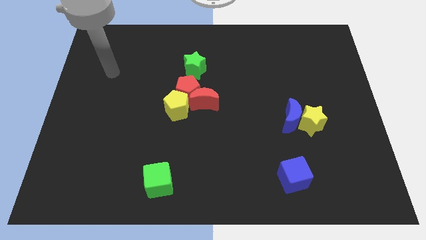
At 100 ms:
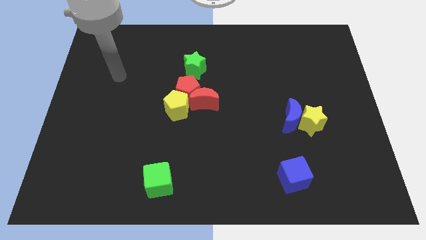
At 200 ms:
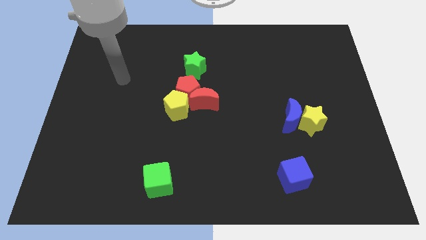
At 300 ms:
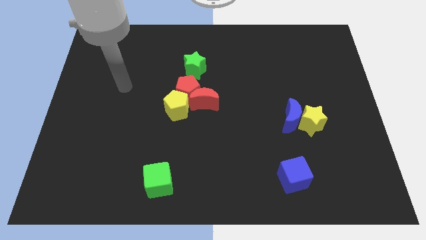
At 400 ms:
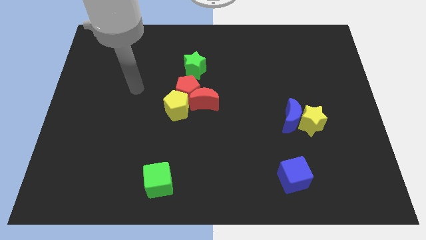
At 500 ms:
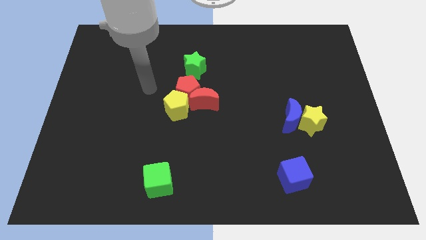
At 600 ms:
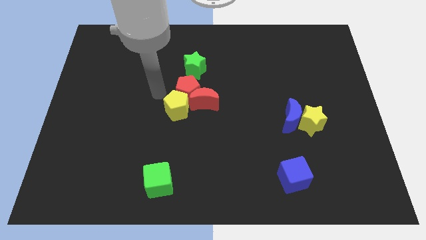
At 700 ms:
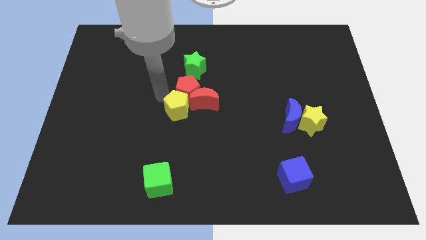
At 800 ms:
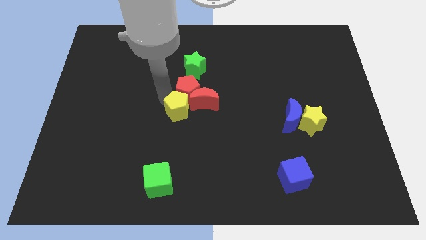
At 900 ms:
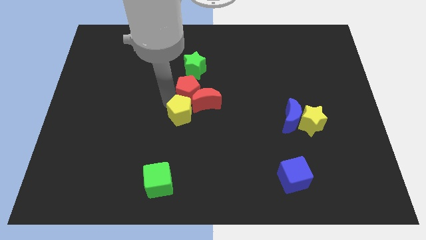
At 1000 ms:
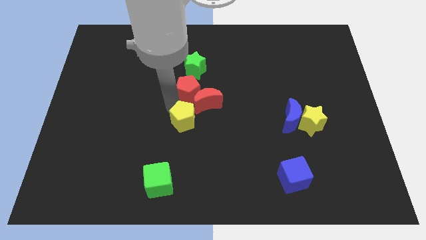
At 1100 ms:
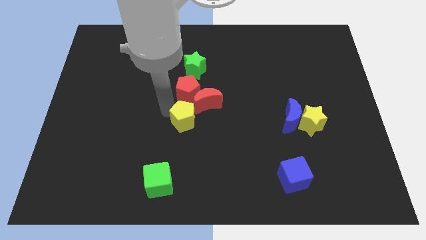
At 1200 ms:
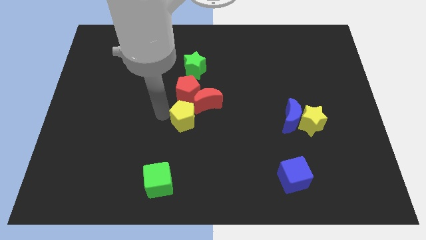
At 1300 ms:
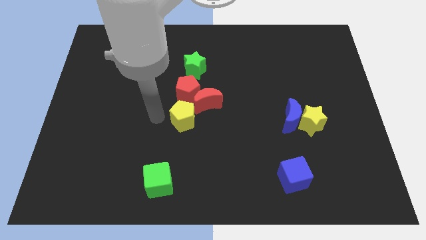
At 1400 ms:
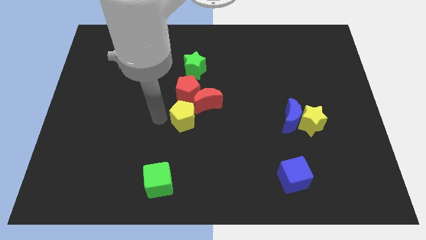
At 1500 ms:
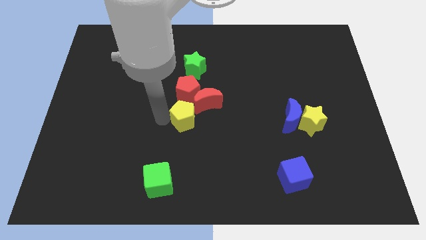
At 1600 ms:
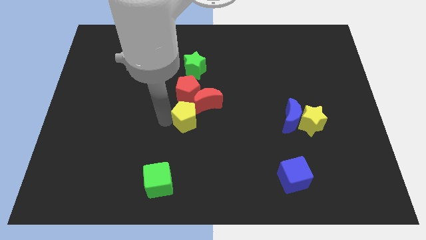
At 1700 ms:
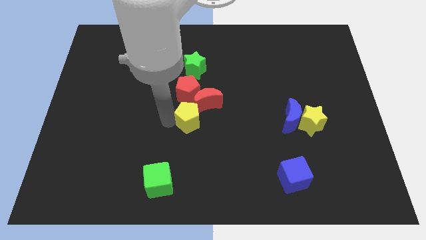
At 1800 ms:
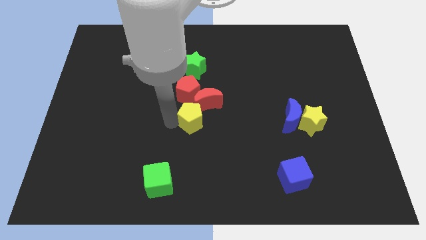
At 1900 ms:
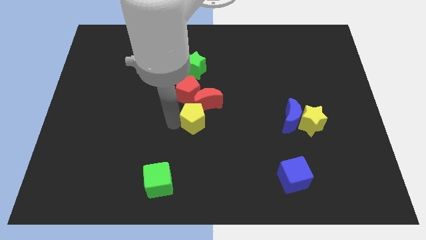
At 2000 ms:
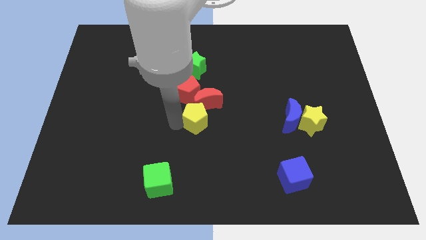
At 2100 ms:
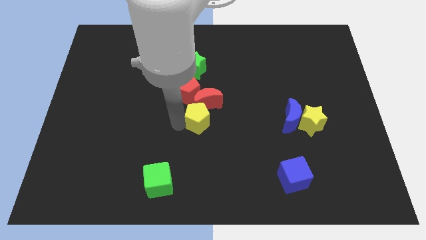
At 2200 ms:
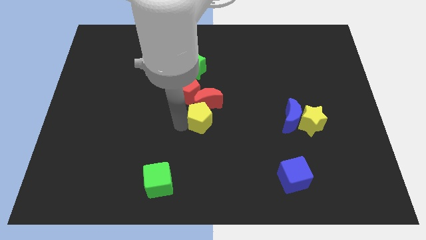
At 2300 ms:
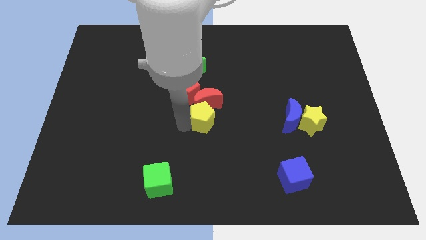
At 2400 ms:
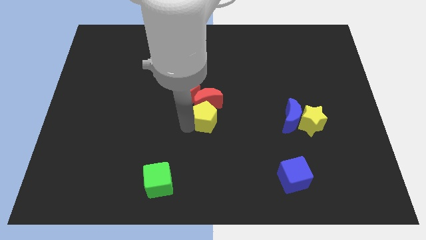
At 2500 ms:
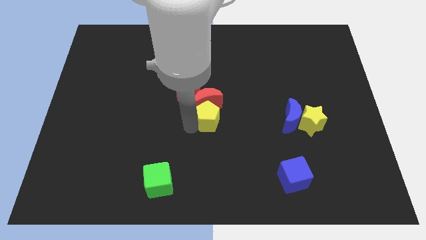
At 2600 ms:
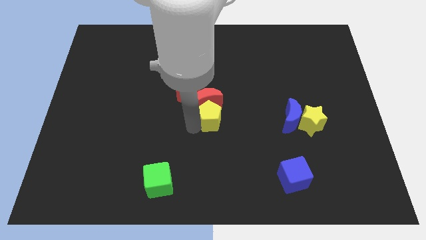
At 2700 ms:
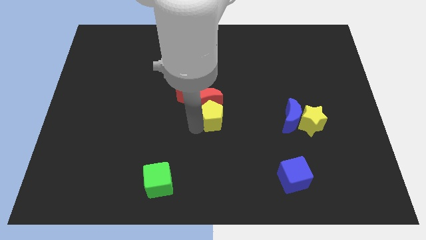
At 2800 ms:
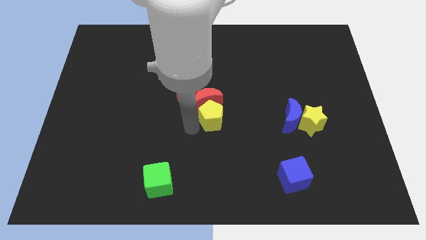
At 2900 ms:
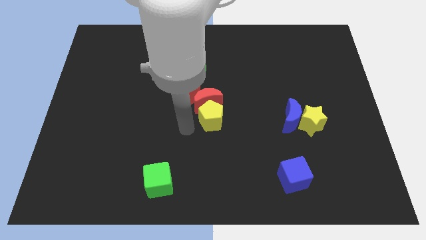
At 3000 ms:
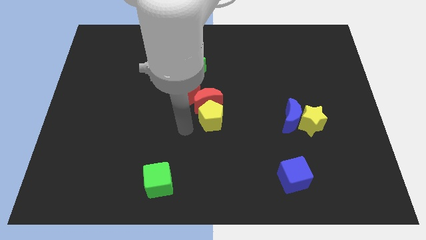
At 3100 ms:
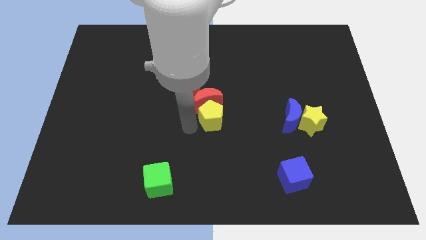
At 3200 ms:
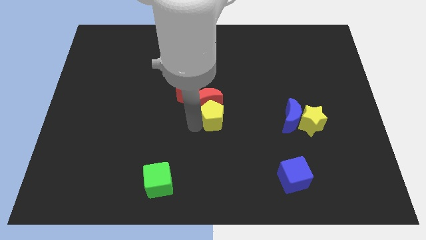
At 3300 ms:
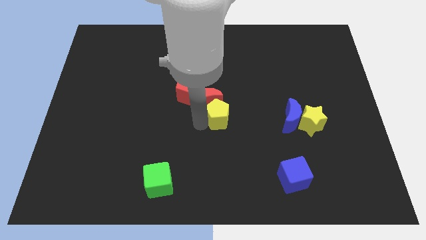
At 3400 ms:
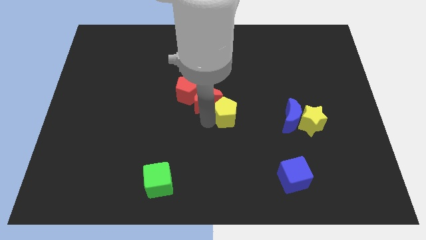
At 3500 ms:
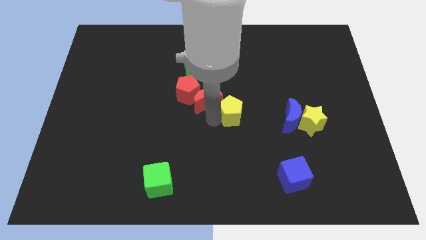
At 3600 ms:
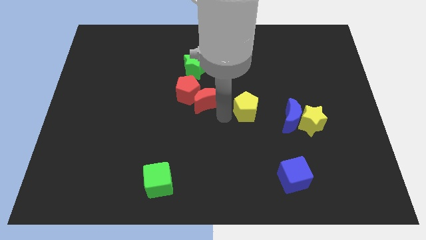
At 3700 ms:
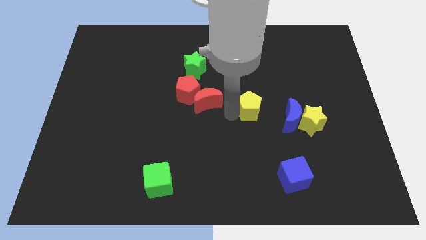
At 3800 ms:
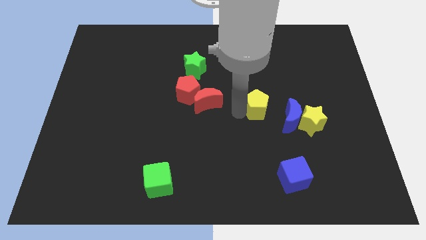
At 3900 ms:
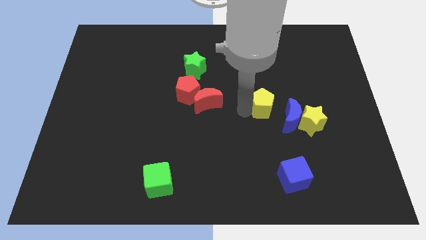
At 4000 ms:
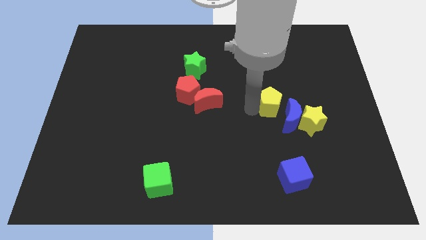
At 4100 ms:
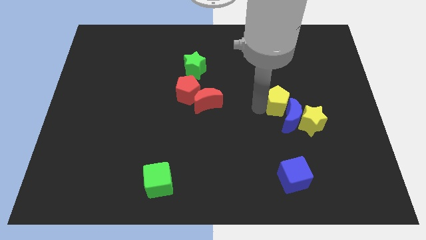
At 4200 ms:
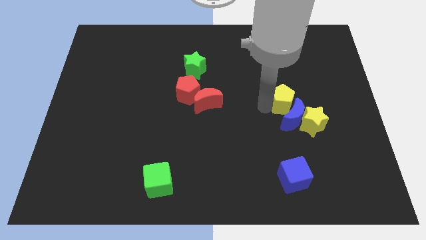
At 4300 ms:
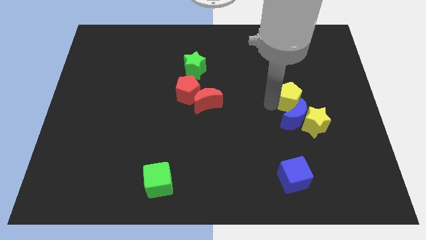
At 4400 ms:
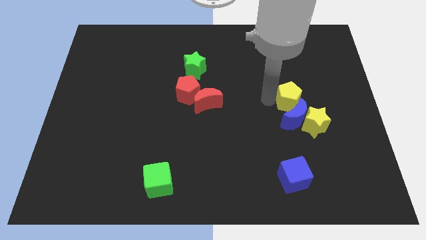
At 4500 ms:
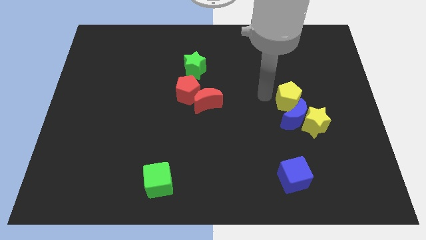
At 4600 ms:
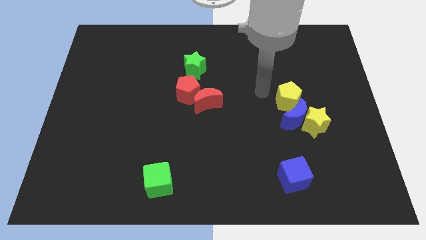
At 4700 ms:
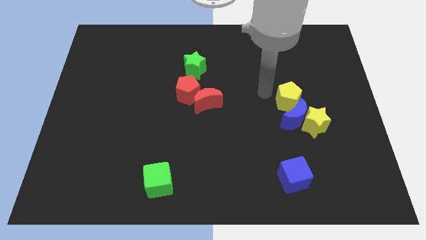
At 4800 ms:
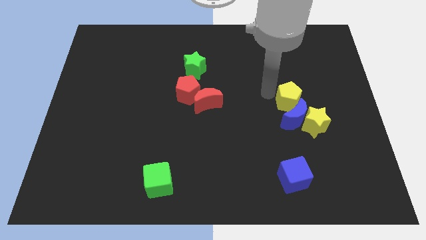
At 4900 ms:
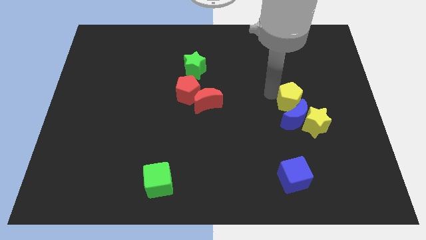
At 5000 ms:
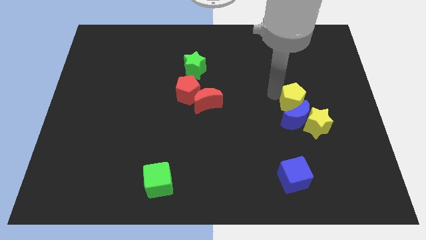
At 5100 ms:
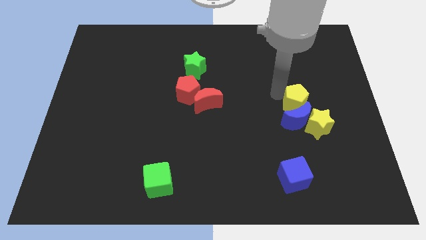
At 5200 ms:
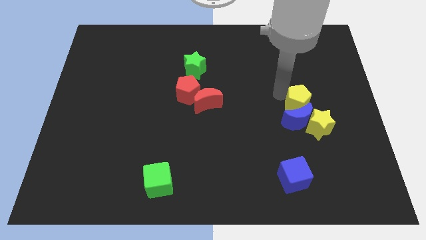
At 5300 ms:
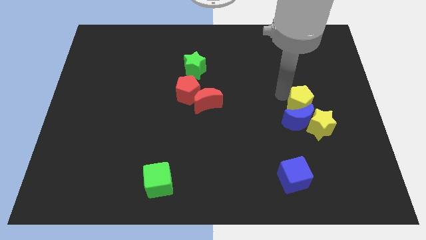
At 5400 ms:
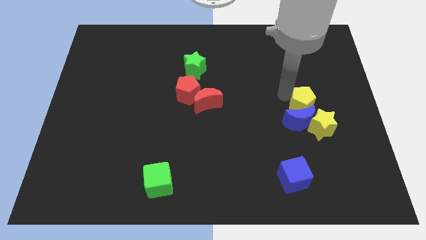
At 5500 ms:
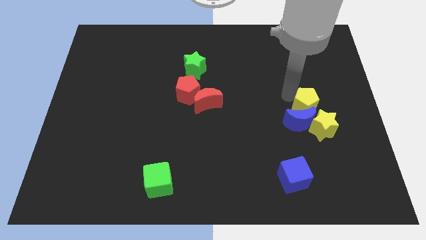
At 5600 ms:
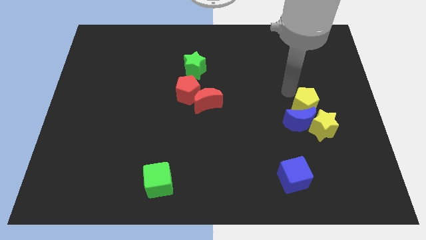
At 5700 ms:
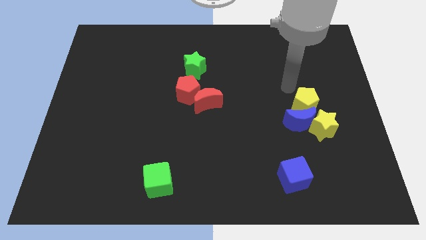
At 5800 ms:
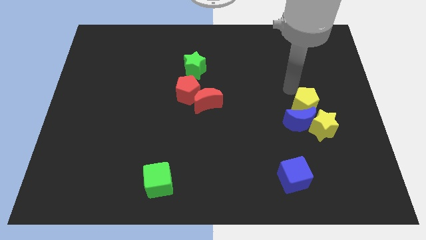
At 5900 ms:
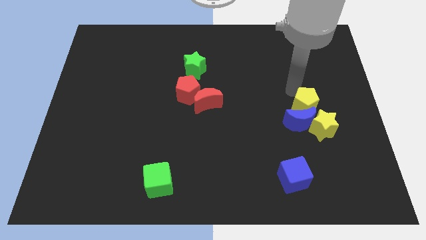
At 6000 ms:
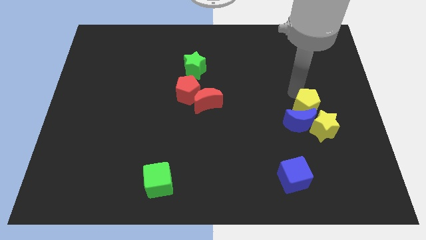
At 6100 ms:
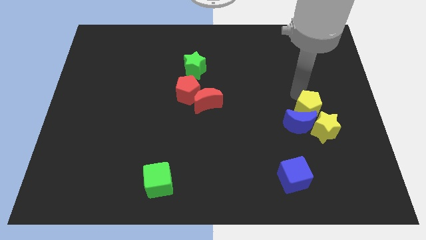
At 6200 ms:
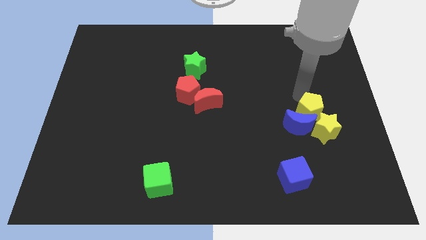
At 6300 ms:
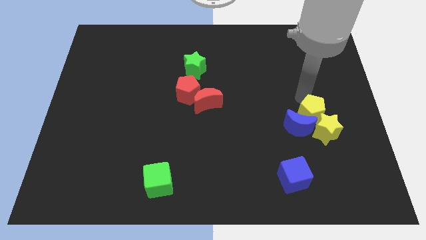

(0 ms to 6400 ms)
move the yellow pentagon to the yellow star

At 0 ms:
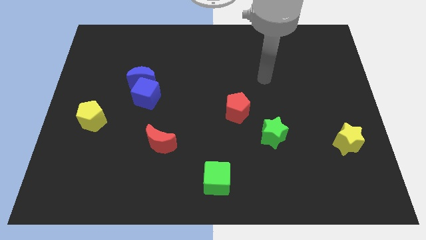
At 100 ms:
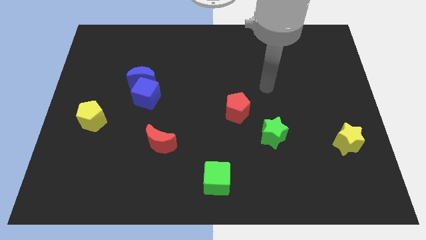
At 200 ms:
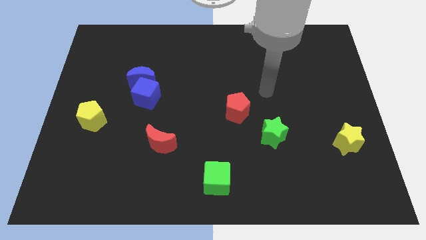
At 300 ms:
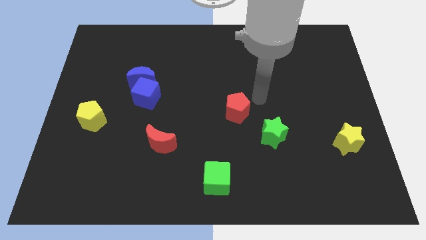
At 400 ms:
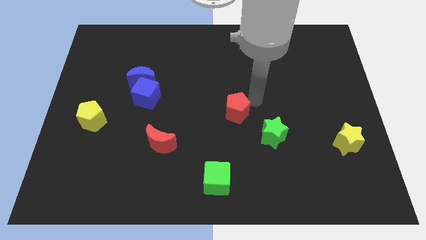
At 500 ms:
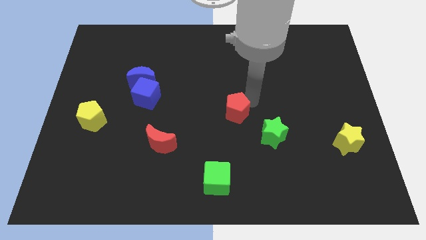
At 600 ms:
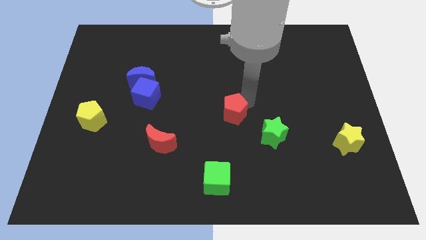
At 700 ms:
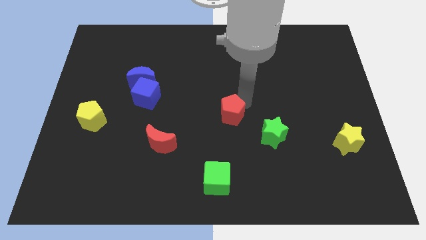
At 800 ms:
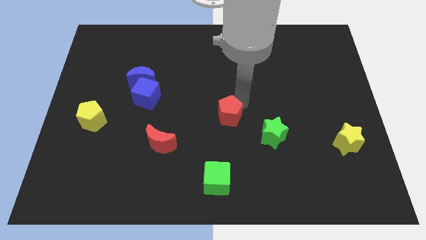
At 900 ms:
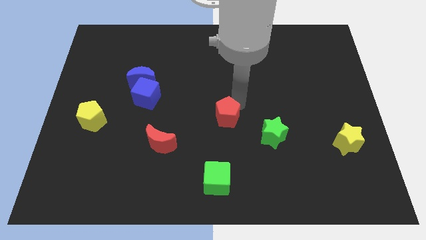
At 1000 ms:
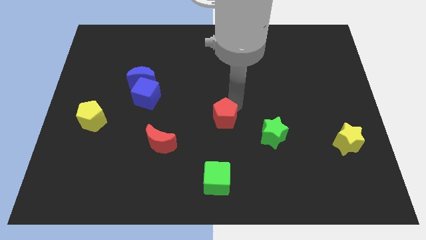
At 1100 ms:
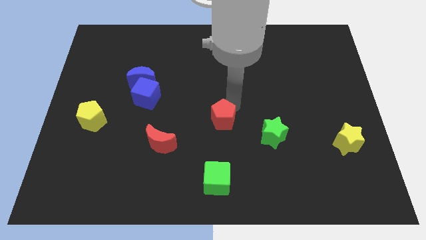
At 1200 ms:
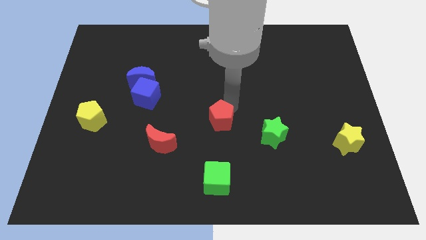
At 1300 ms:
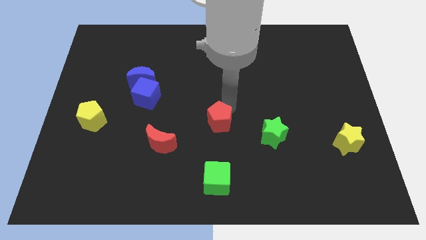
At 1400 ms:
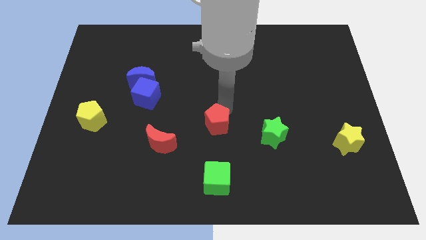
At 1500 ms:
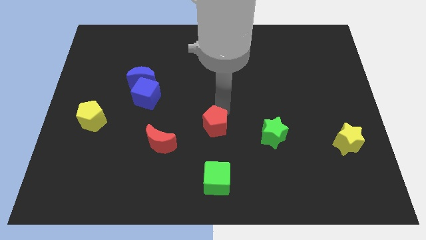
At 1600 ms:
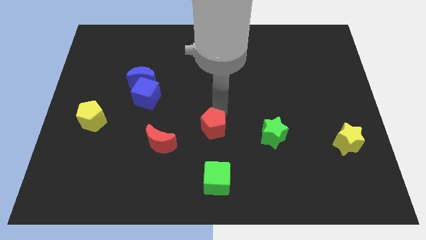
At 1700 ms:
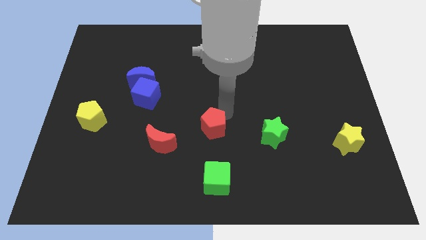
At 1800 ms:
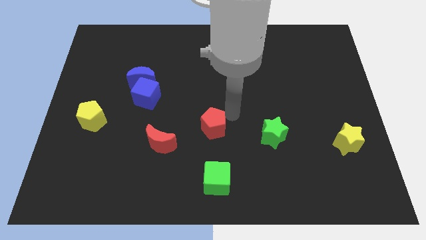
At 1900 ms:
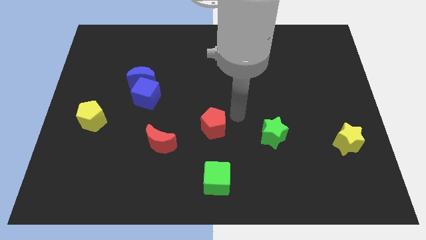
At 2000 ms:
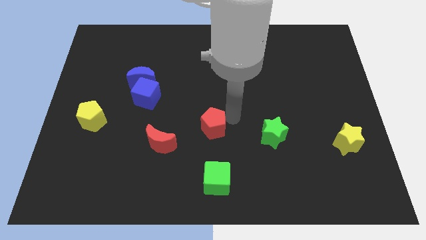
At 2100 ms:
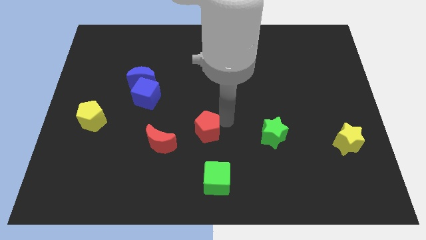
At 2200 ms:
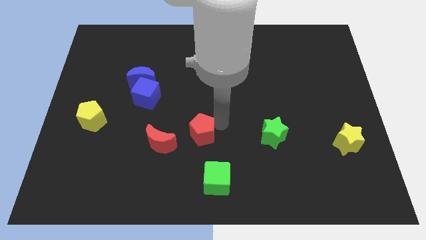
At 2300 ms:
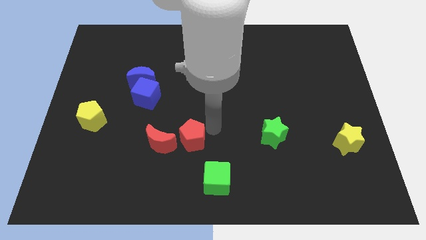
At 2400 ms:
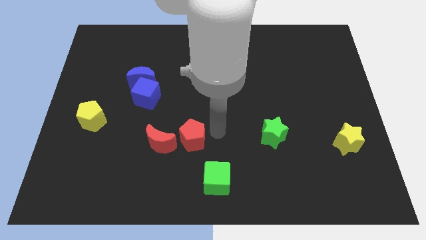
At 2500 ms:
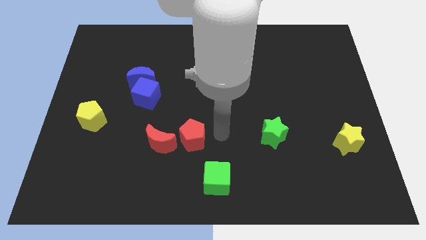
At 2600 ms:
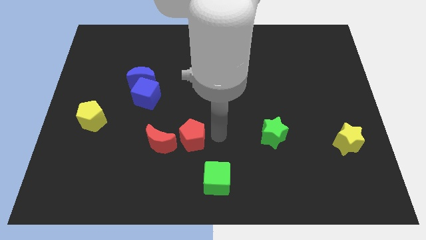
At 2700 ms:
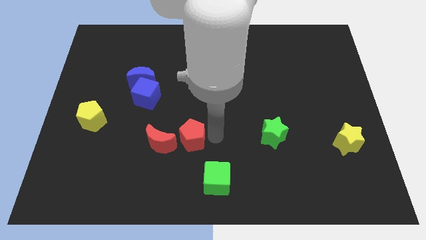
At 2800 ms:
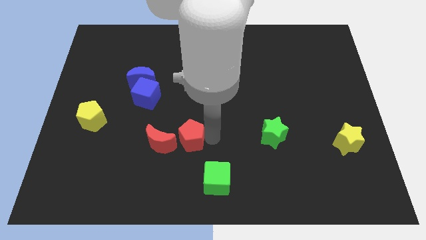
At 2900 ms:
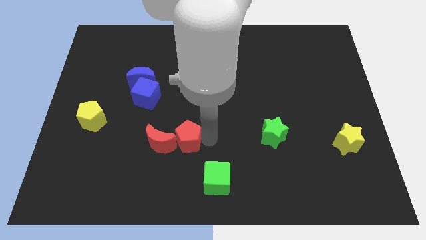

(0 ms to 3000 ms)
move the red pentagon next to the red moon
